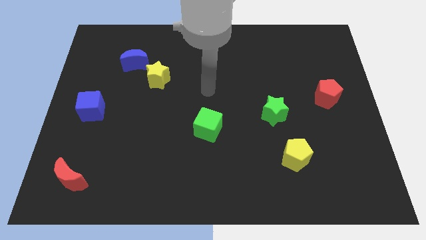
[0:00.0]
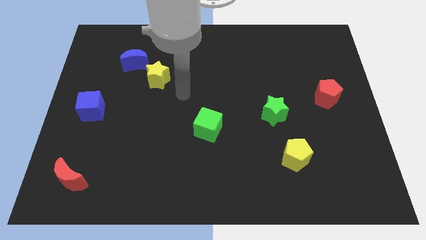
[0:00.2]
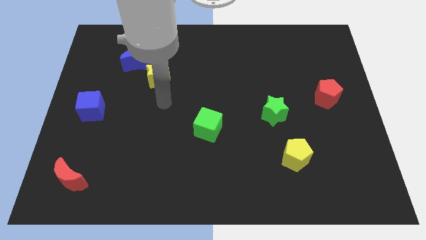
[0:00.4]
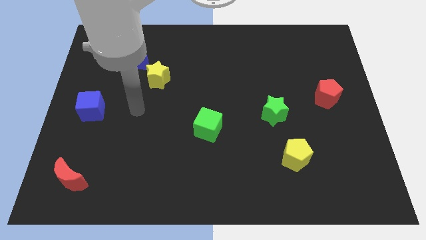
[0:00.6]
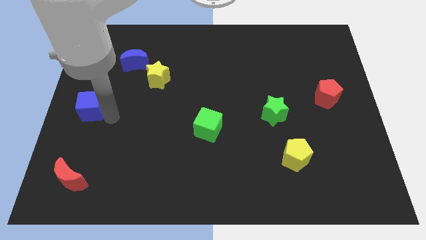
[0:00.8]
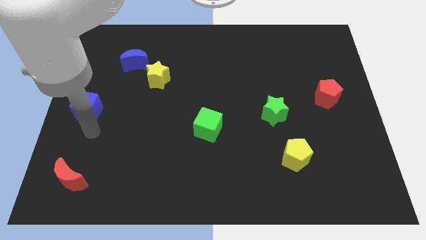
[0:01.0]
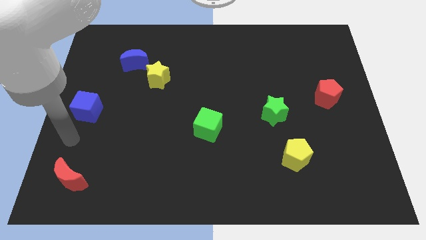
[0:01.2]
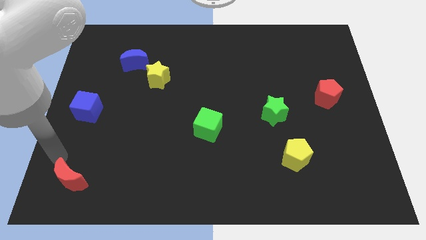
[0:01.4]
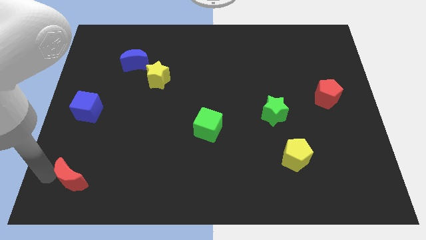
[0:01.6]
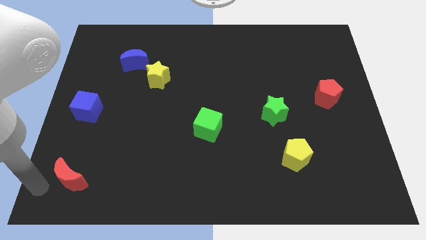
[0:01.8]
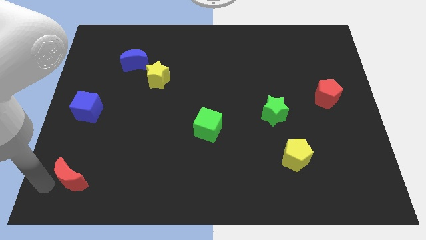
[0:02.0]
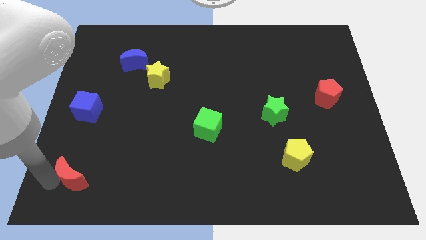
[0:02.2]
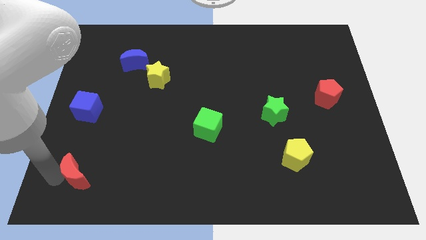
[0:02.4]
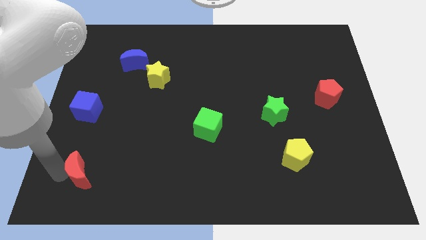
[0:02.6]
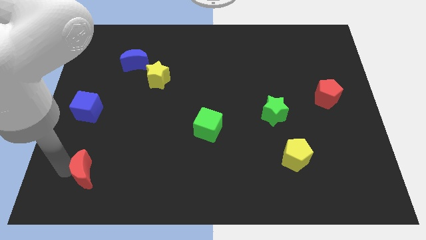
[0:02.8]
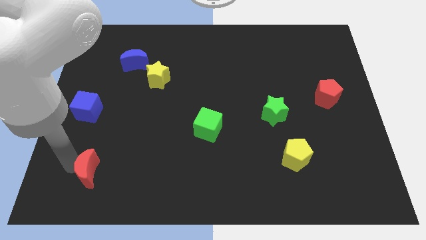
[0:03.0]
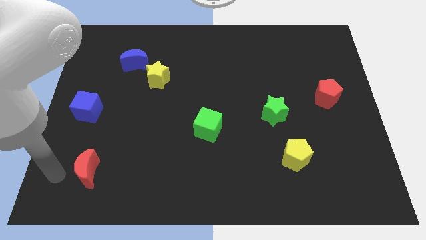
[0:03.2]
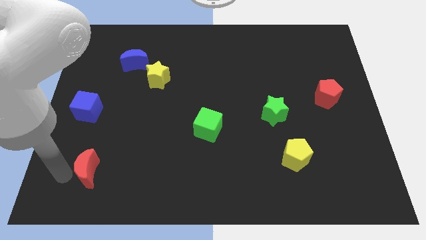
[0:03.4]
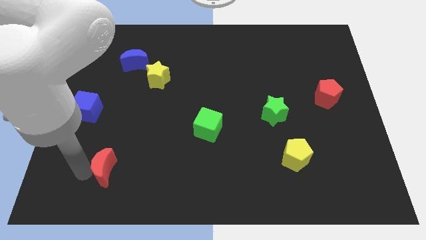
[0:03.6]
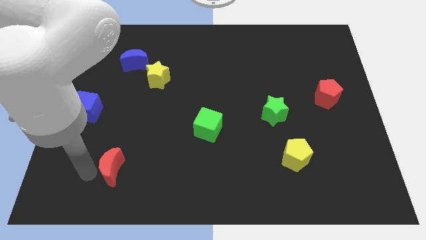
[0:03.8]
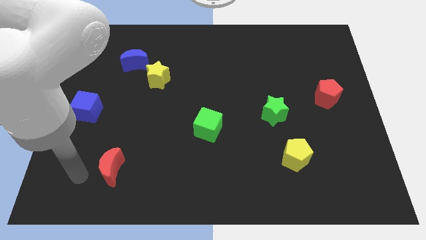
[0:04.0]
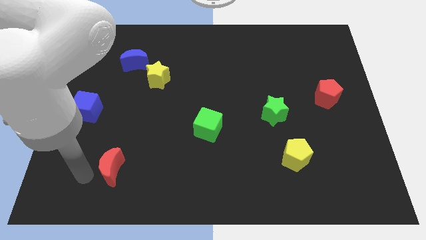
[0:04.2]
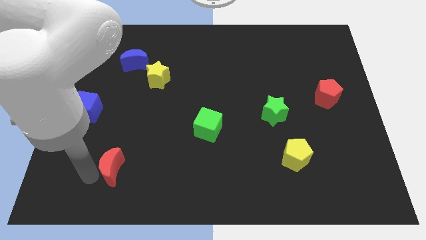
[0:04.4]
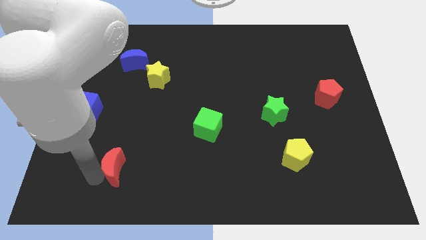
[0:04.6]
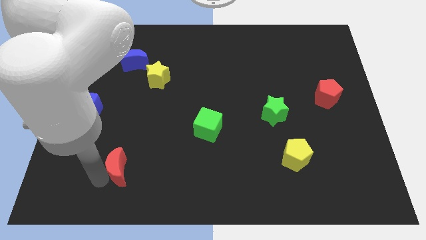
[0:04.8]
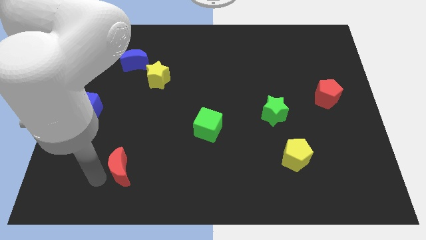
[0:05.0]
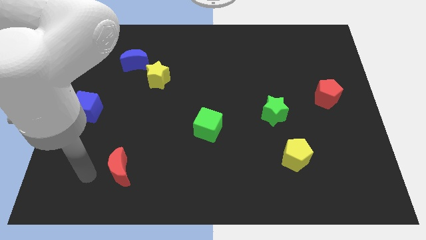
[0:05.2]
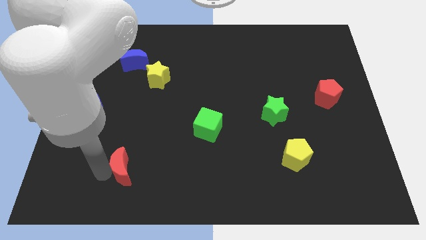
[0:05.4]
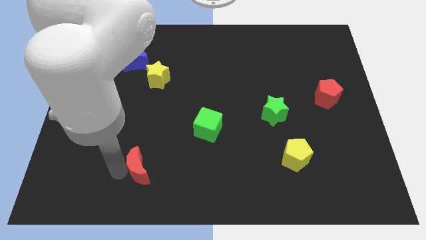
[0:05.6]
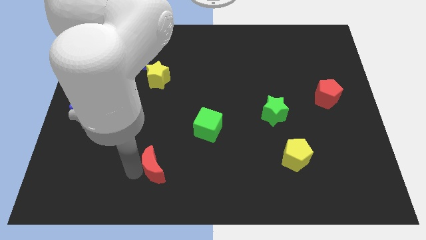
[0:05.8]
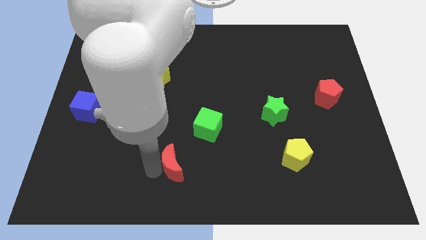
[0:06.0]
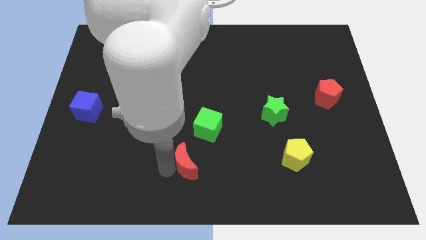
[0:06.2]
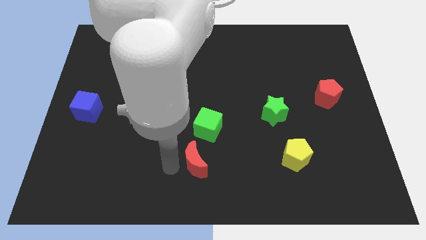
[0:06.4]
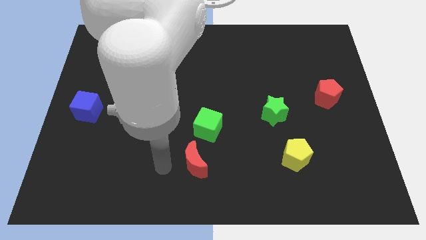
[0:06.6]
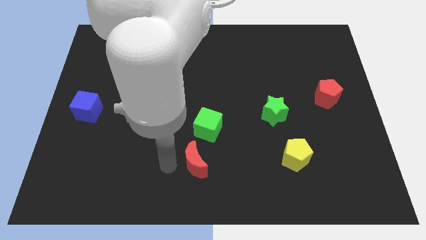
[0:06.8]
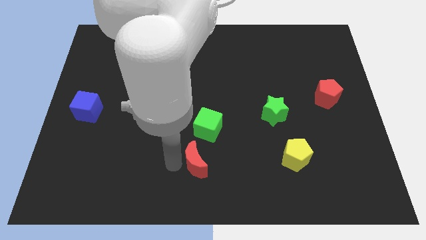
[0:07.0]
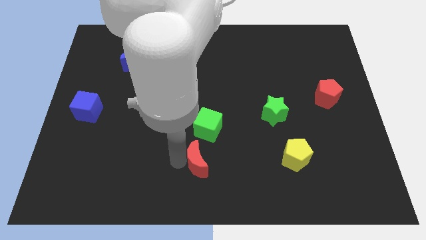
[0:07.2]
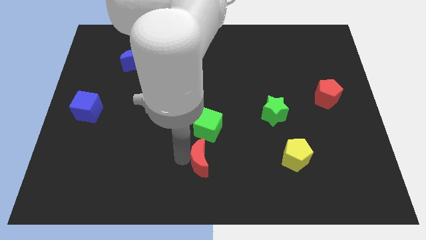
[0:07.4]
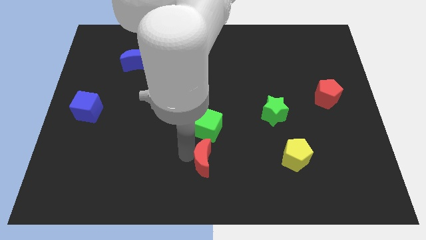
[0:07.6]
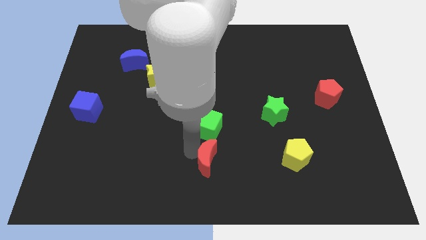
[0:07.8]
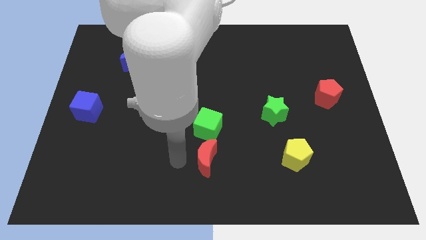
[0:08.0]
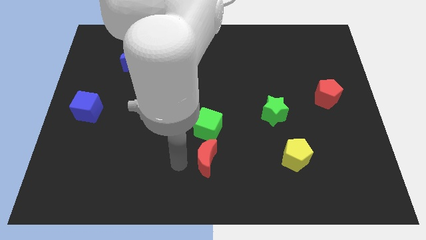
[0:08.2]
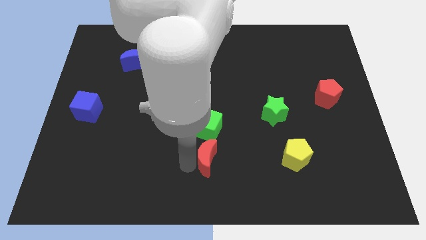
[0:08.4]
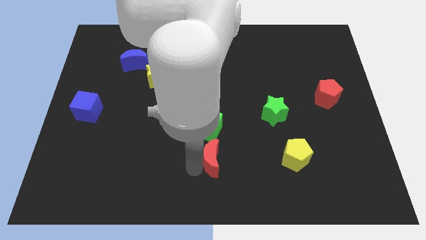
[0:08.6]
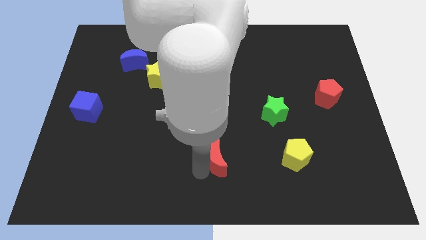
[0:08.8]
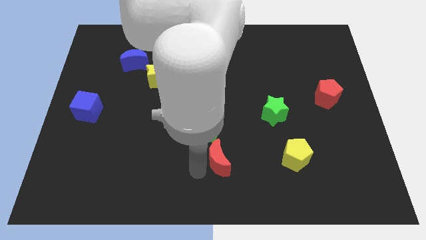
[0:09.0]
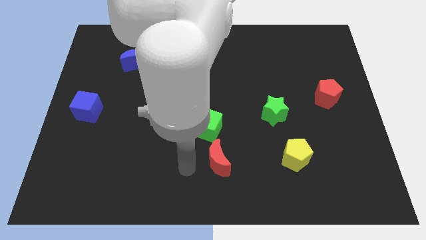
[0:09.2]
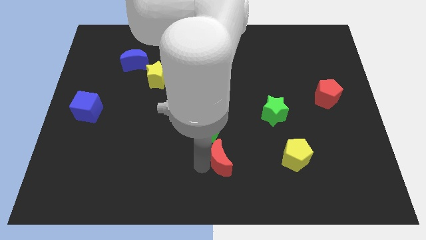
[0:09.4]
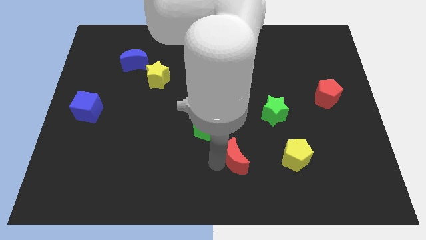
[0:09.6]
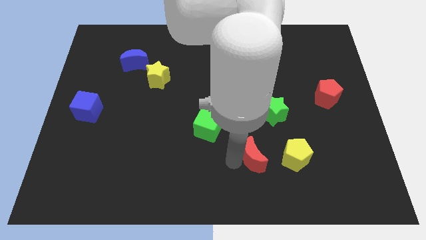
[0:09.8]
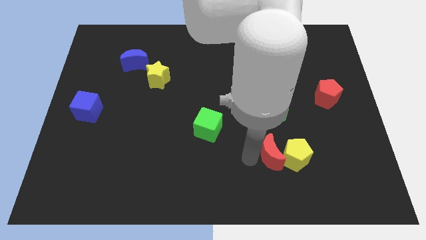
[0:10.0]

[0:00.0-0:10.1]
push the red moon next to the yellow pentagon

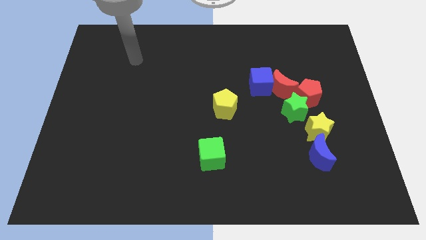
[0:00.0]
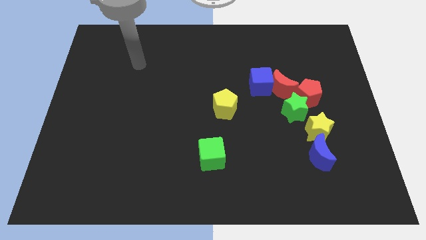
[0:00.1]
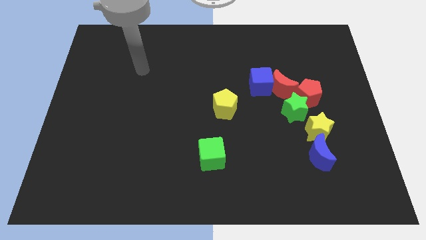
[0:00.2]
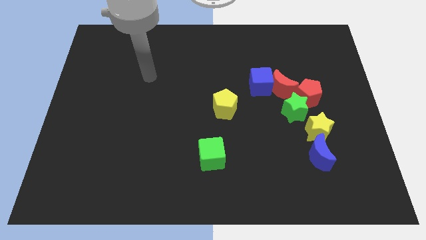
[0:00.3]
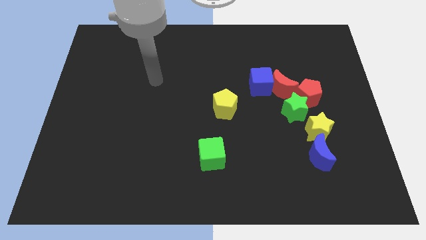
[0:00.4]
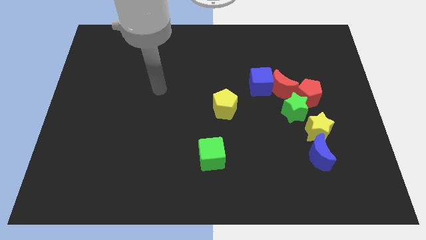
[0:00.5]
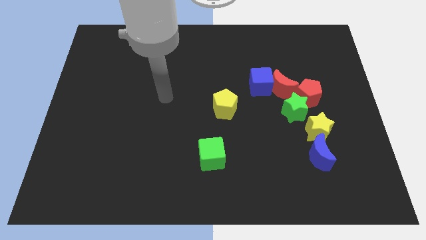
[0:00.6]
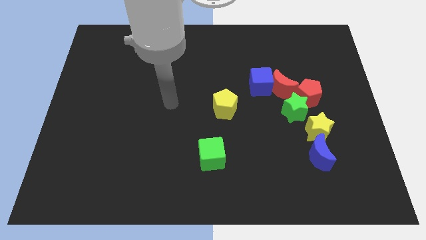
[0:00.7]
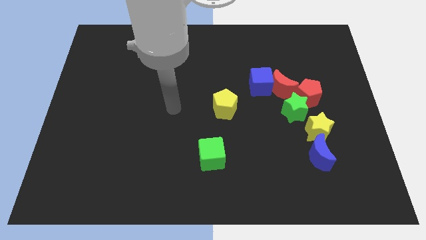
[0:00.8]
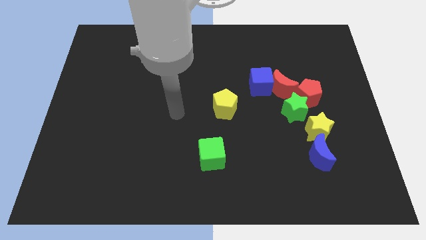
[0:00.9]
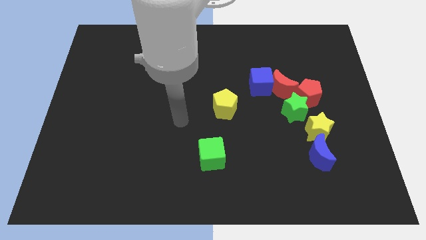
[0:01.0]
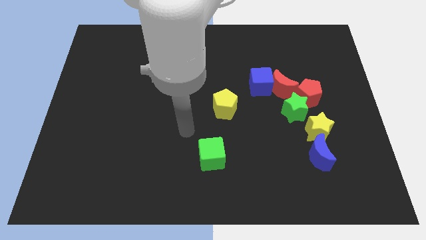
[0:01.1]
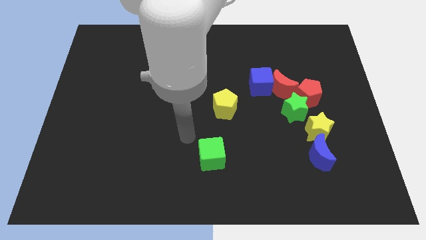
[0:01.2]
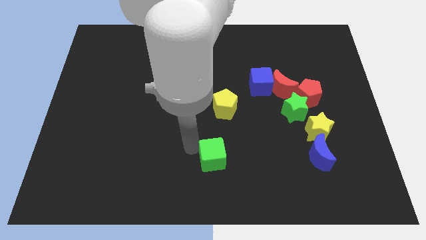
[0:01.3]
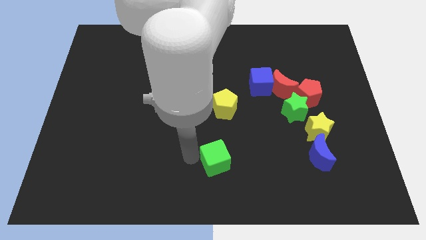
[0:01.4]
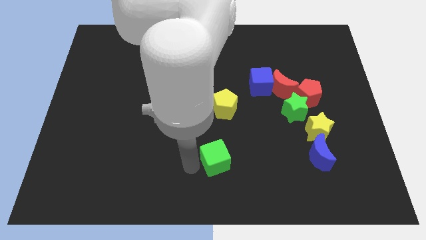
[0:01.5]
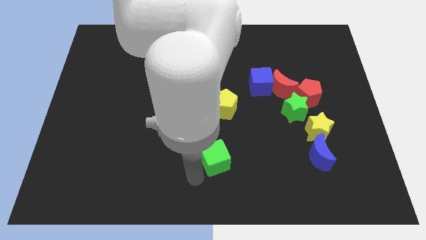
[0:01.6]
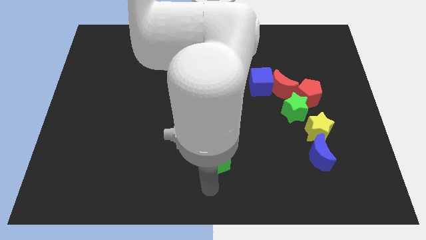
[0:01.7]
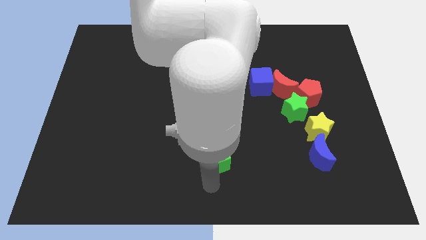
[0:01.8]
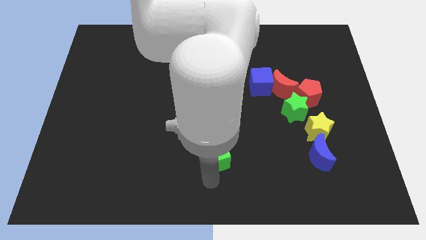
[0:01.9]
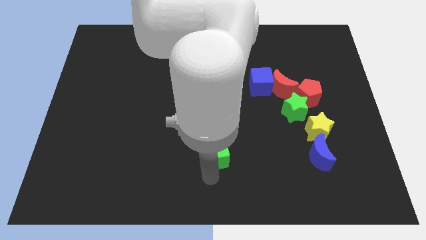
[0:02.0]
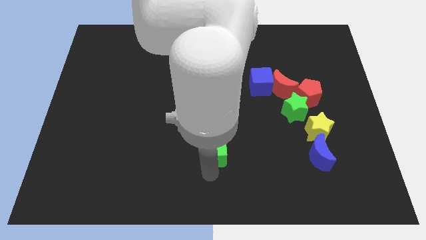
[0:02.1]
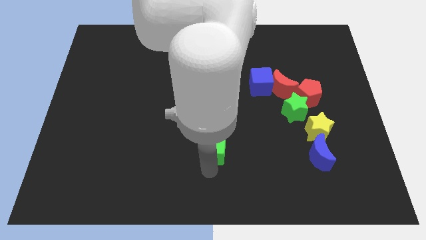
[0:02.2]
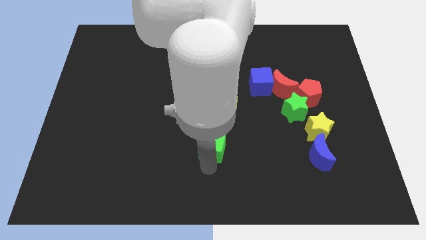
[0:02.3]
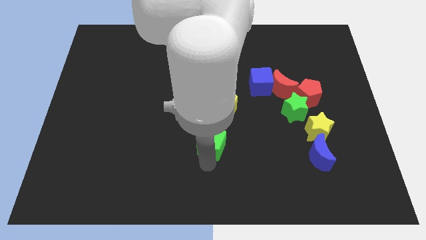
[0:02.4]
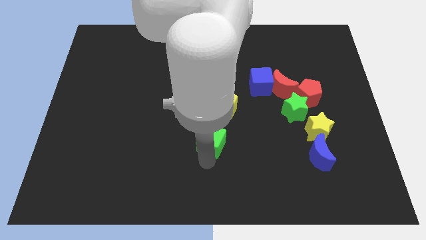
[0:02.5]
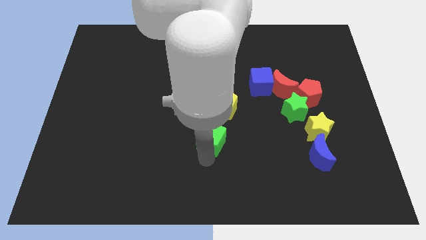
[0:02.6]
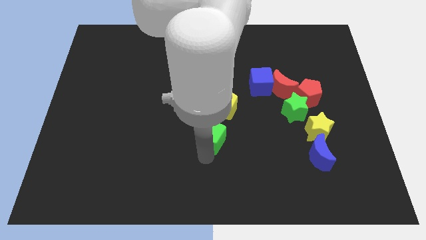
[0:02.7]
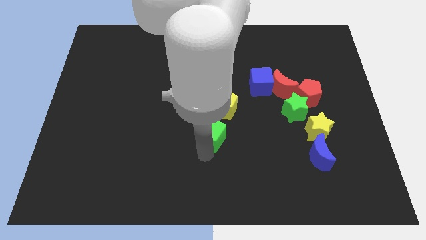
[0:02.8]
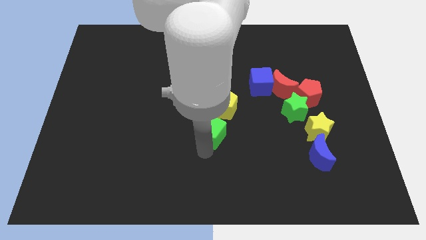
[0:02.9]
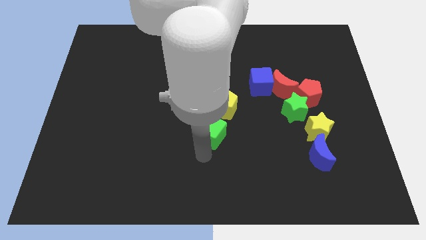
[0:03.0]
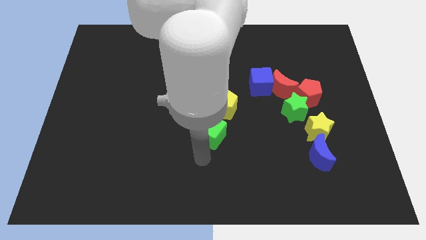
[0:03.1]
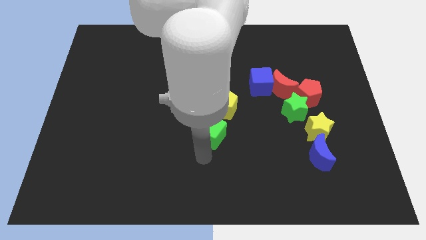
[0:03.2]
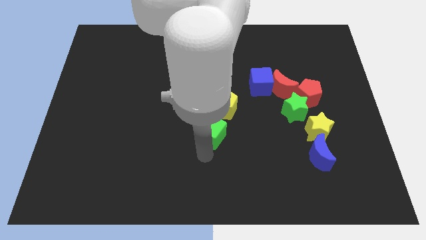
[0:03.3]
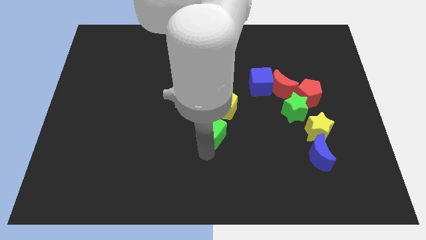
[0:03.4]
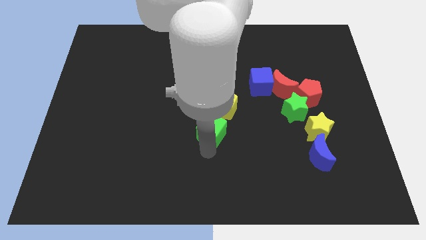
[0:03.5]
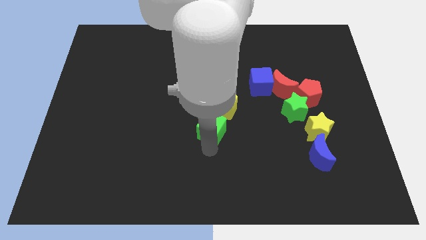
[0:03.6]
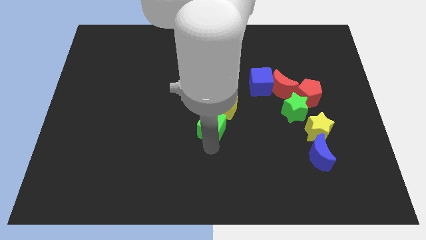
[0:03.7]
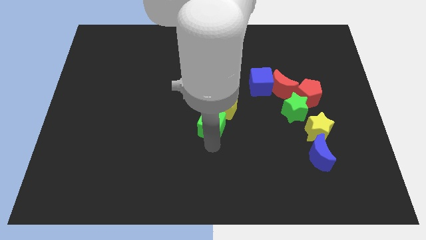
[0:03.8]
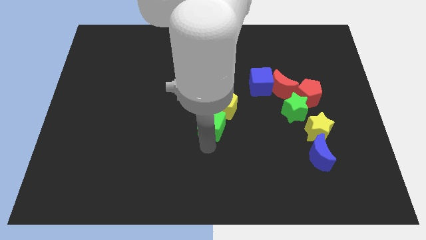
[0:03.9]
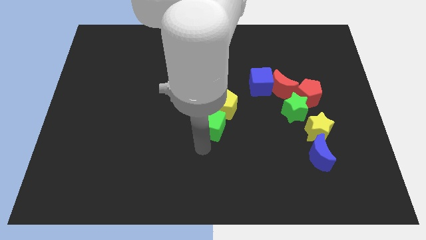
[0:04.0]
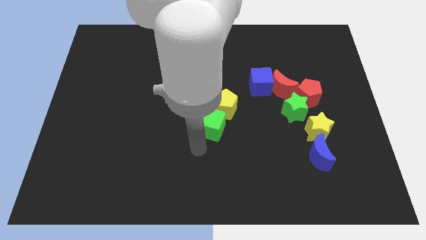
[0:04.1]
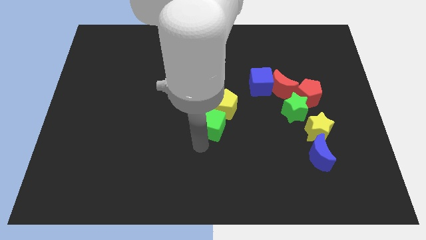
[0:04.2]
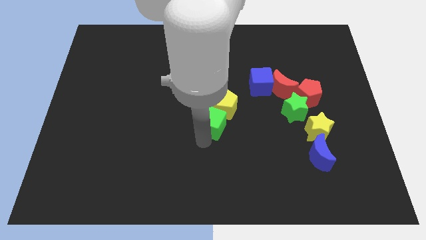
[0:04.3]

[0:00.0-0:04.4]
move the green cube towards the yellow pentagon
